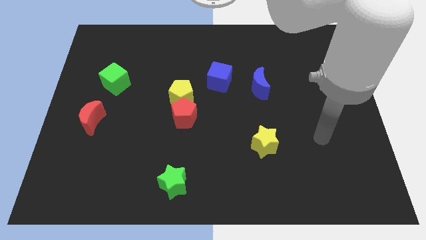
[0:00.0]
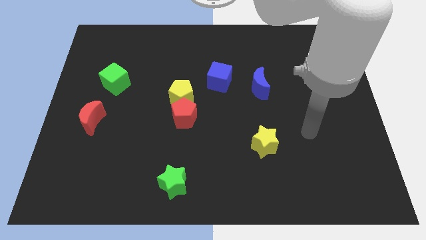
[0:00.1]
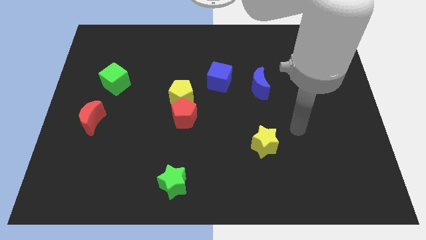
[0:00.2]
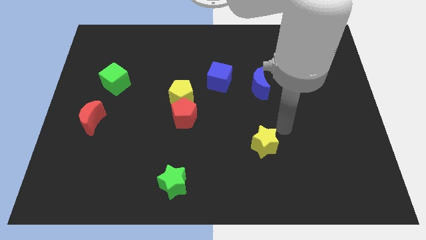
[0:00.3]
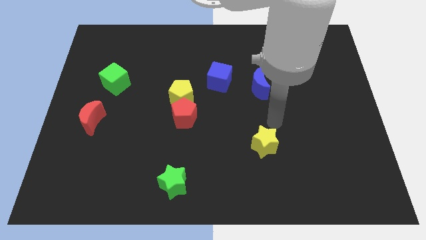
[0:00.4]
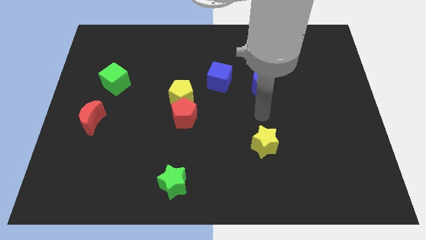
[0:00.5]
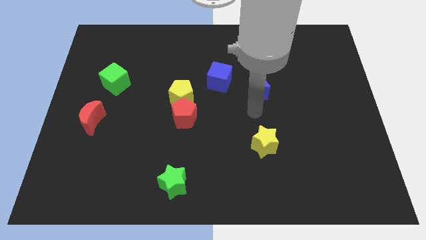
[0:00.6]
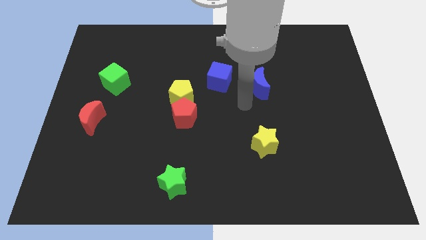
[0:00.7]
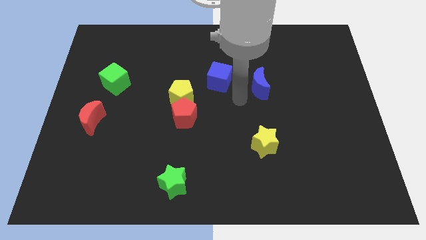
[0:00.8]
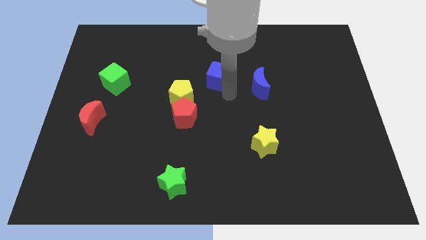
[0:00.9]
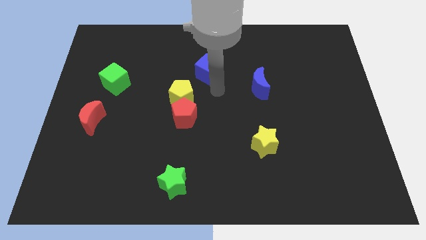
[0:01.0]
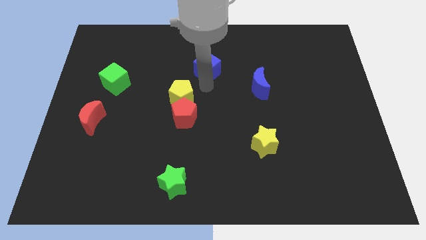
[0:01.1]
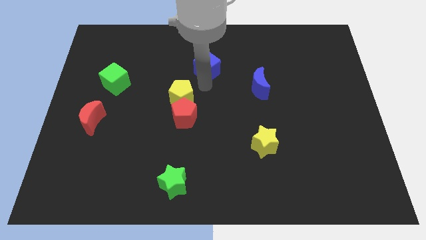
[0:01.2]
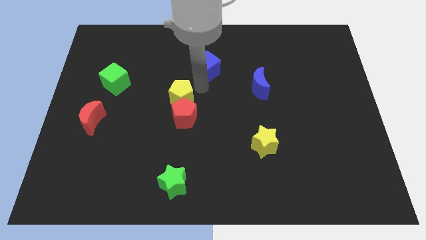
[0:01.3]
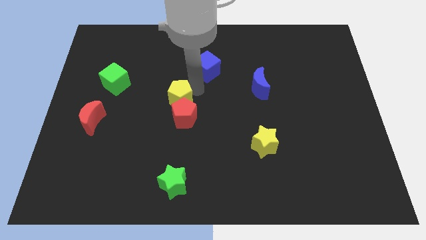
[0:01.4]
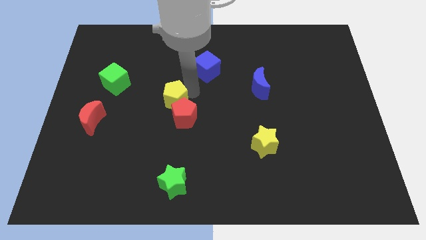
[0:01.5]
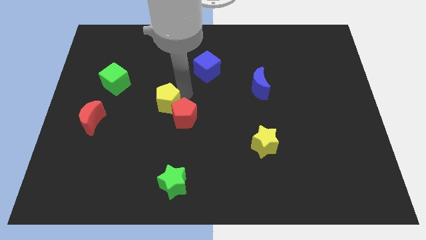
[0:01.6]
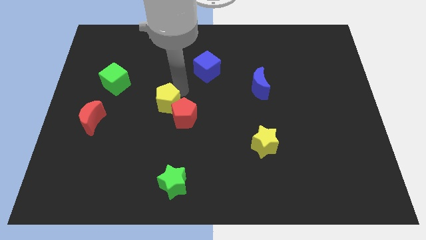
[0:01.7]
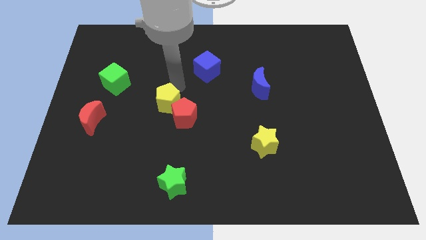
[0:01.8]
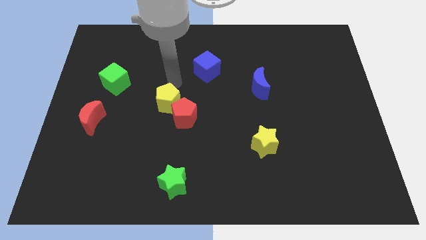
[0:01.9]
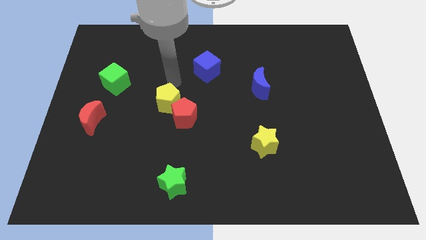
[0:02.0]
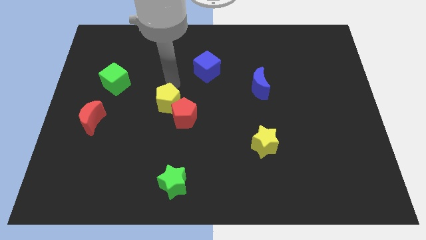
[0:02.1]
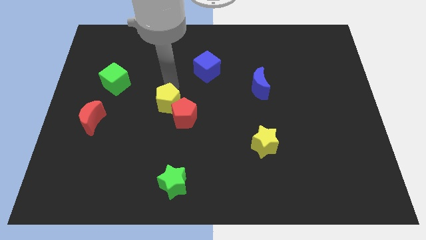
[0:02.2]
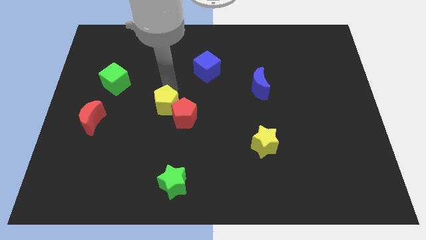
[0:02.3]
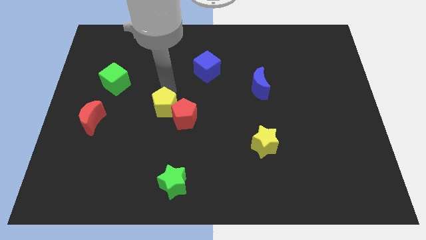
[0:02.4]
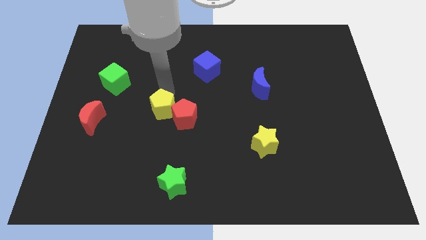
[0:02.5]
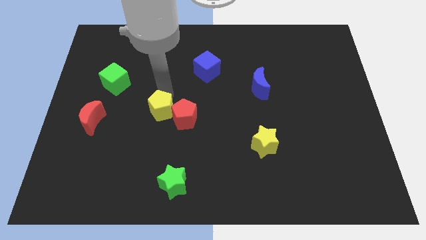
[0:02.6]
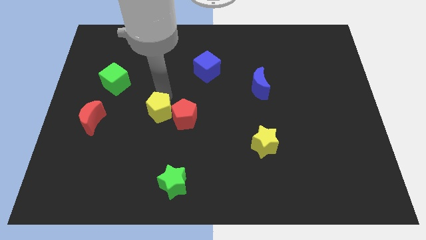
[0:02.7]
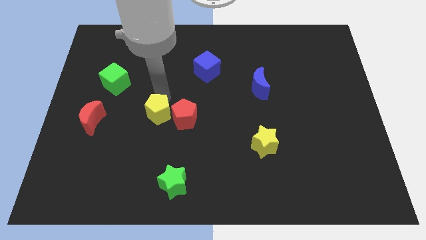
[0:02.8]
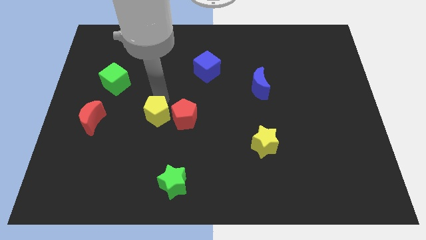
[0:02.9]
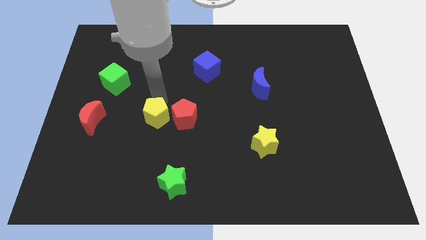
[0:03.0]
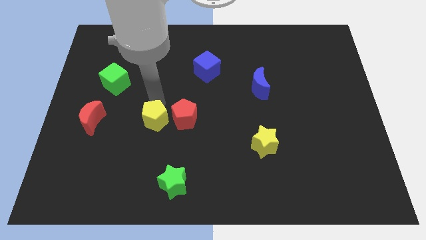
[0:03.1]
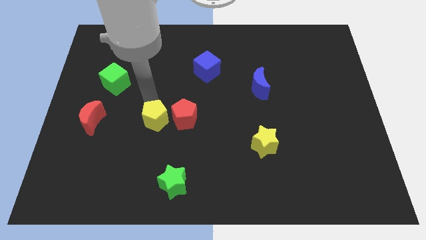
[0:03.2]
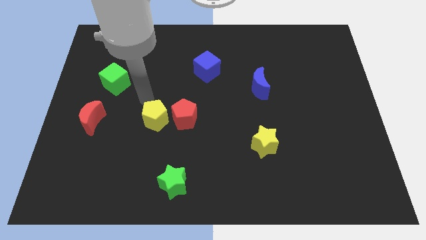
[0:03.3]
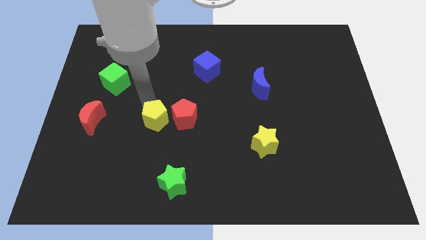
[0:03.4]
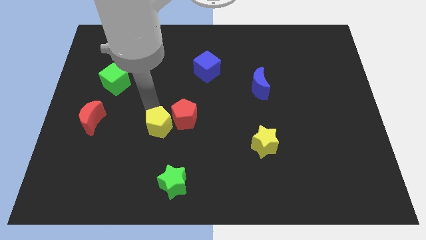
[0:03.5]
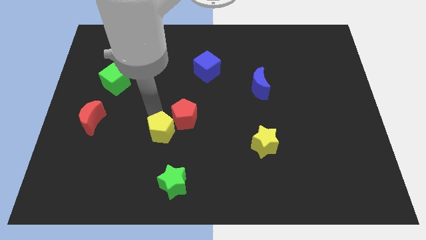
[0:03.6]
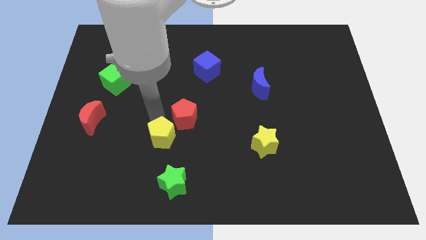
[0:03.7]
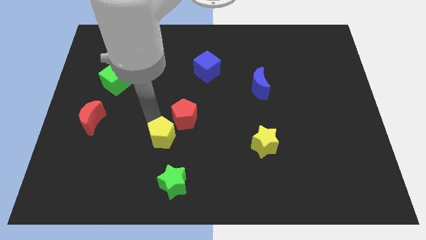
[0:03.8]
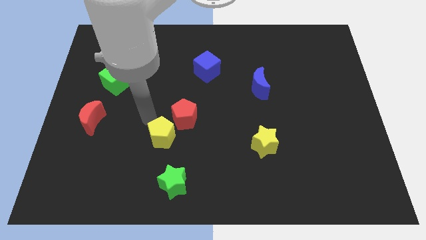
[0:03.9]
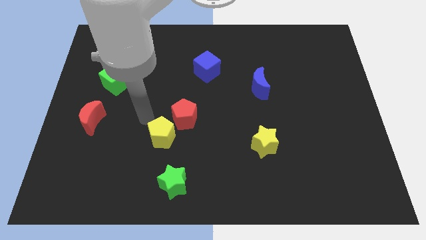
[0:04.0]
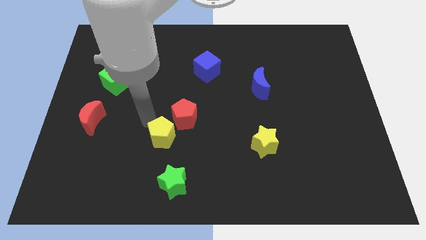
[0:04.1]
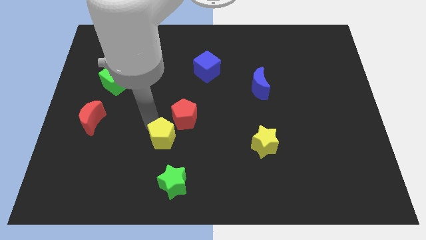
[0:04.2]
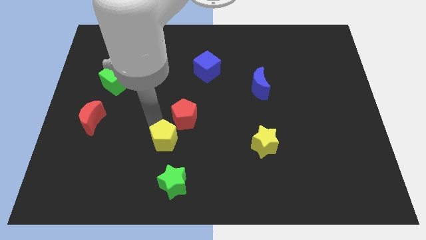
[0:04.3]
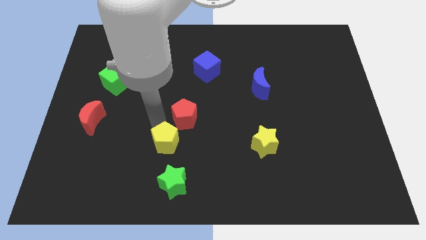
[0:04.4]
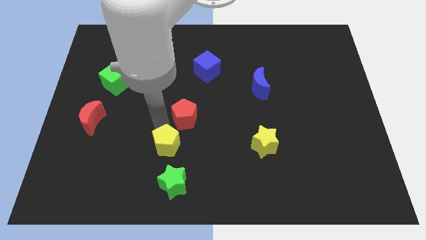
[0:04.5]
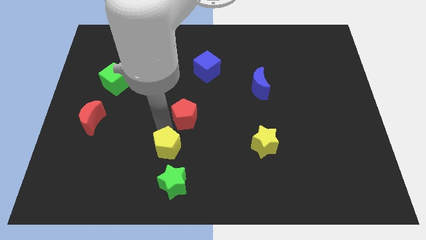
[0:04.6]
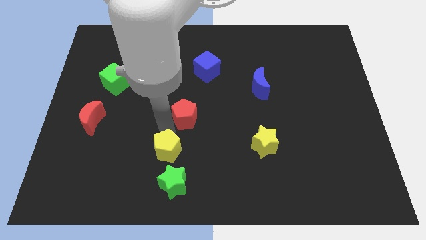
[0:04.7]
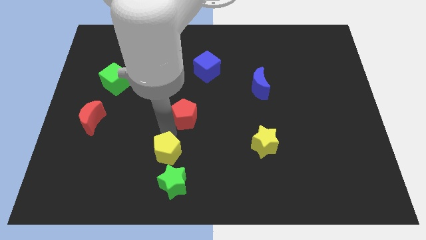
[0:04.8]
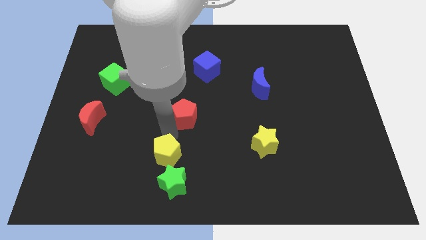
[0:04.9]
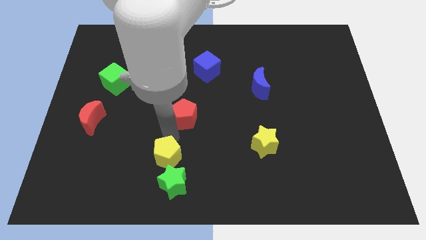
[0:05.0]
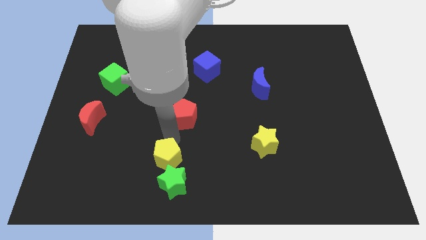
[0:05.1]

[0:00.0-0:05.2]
slide the yellow pentagon to the green star

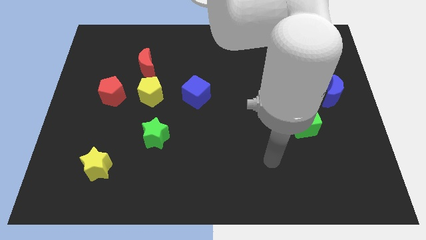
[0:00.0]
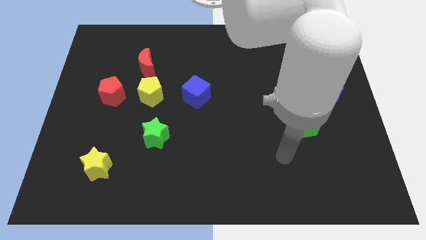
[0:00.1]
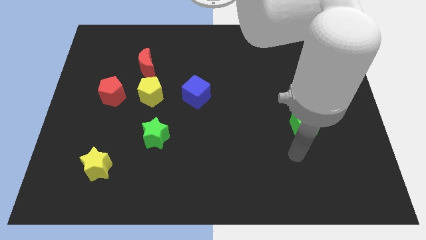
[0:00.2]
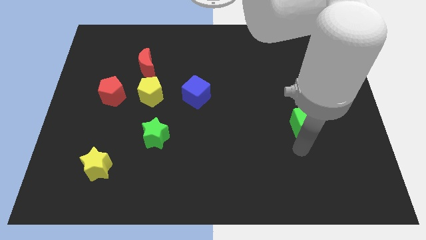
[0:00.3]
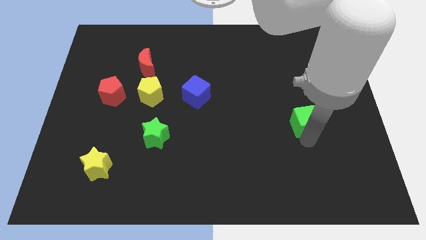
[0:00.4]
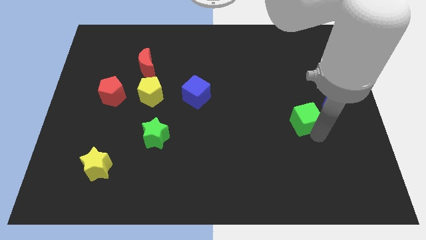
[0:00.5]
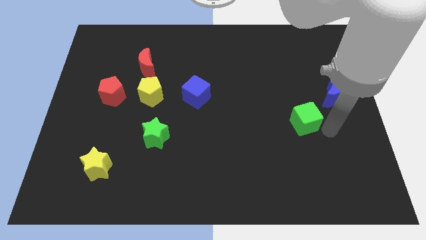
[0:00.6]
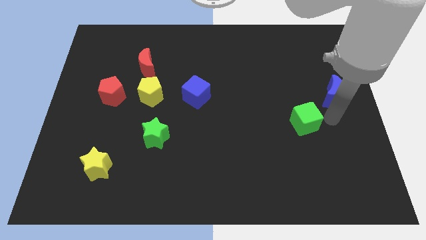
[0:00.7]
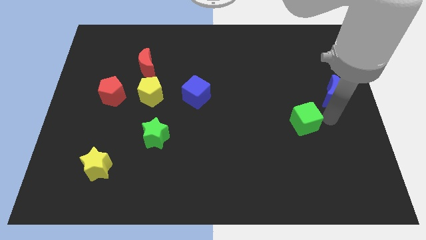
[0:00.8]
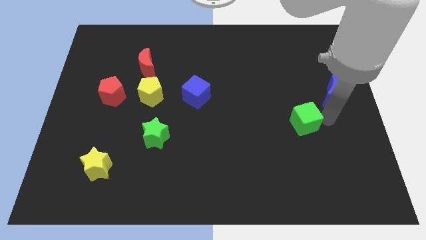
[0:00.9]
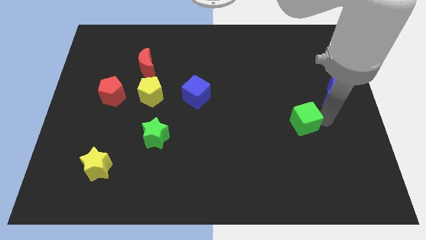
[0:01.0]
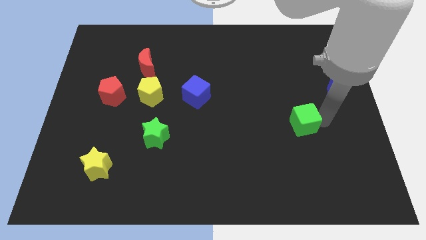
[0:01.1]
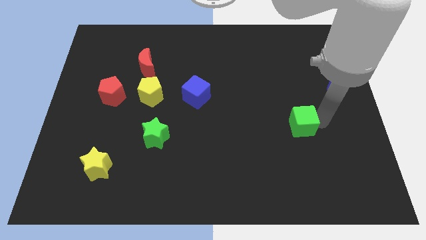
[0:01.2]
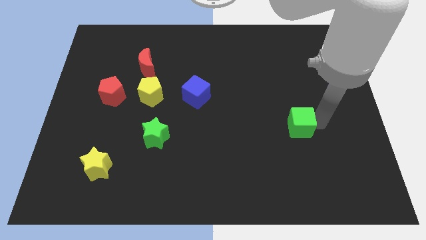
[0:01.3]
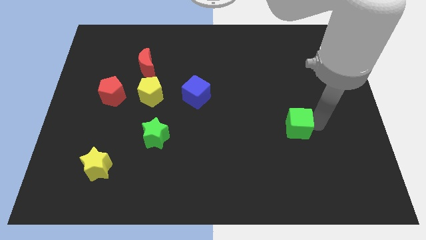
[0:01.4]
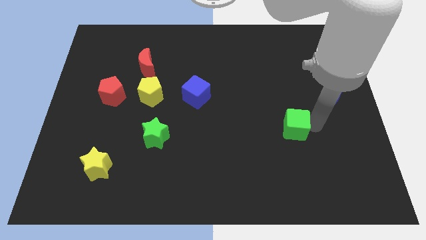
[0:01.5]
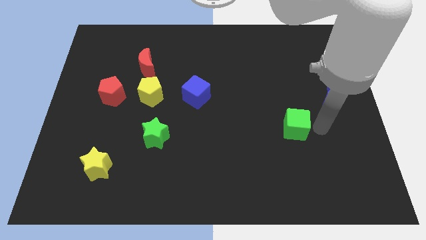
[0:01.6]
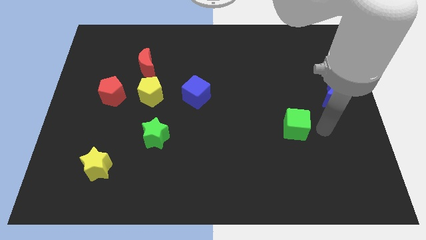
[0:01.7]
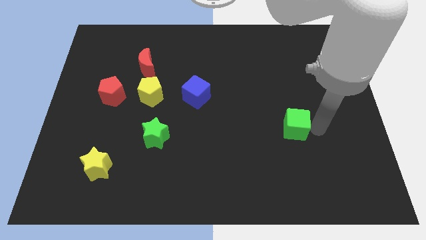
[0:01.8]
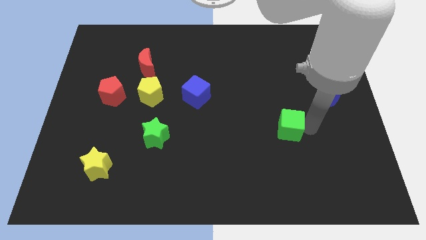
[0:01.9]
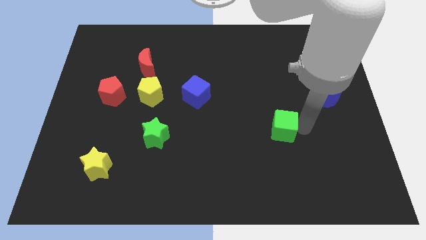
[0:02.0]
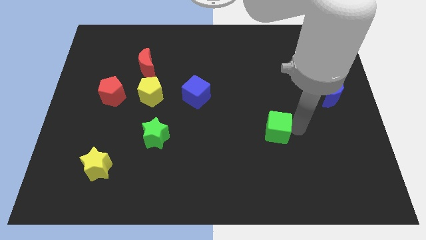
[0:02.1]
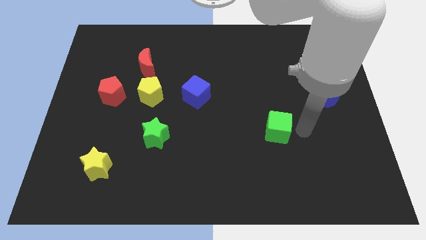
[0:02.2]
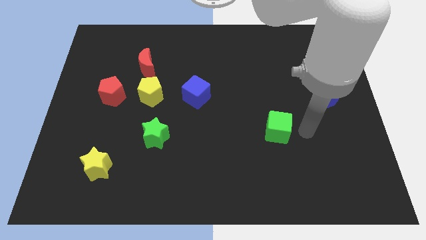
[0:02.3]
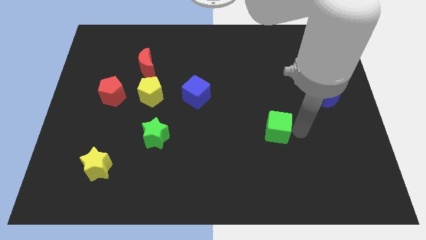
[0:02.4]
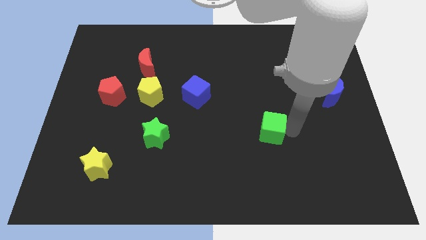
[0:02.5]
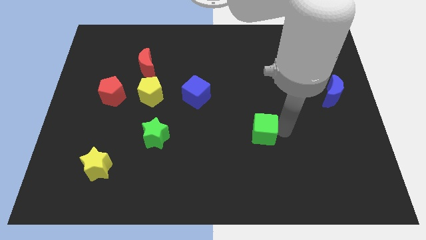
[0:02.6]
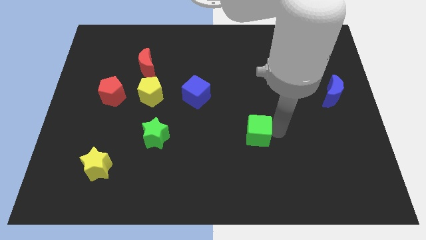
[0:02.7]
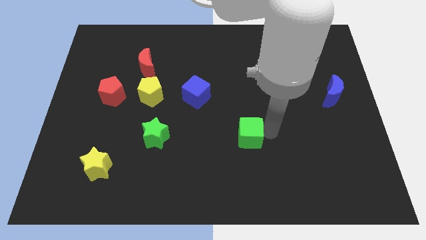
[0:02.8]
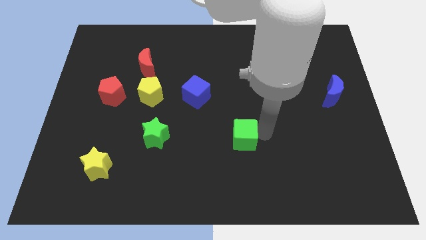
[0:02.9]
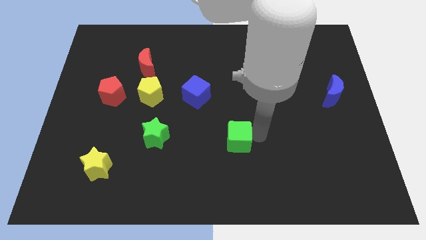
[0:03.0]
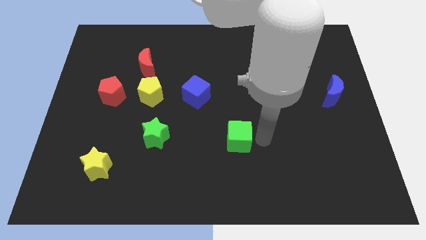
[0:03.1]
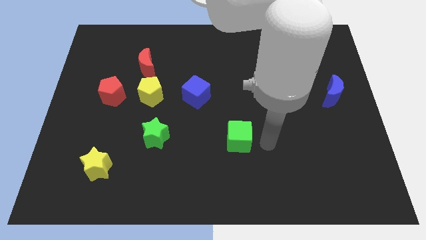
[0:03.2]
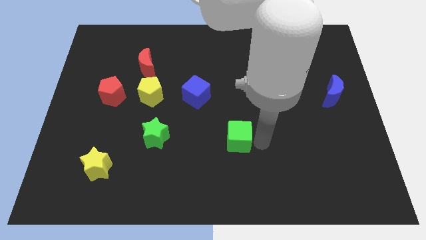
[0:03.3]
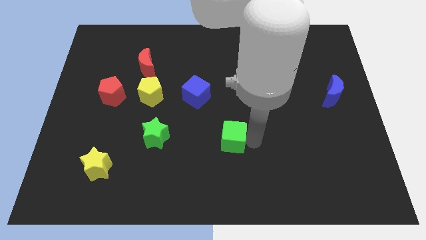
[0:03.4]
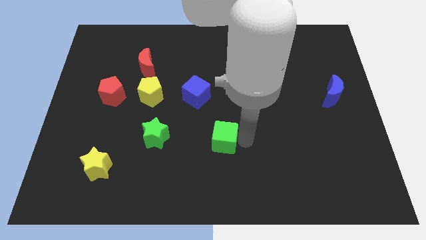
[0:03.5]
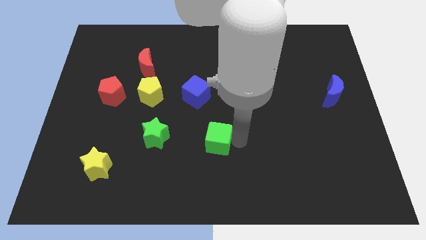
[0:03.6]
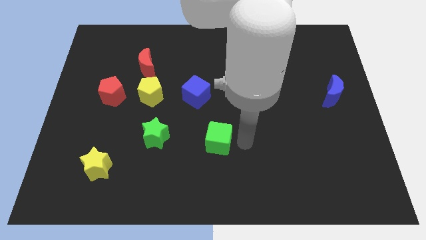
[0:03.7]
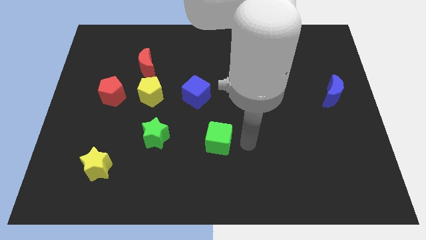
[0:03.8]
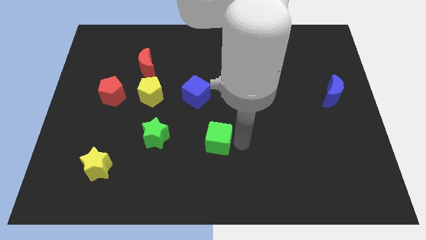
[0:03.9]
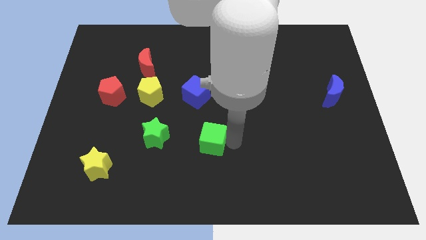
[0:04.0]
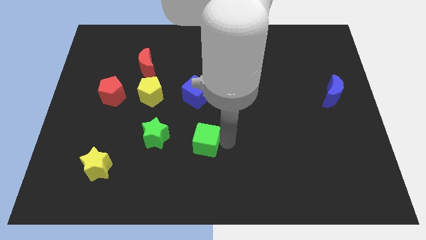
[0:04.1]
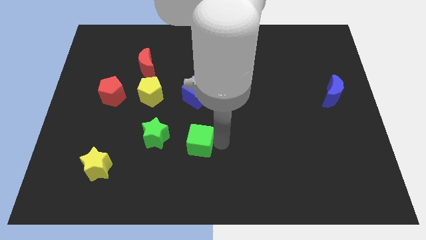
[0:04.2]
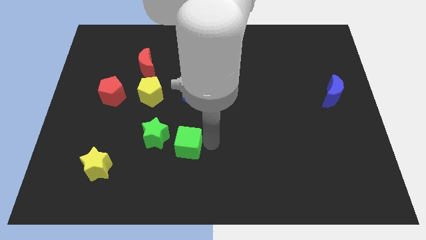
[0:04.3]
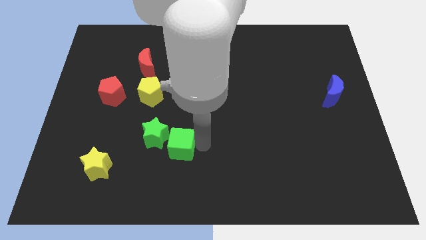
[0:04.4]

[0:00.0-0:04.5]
move the green cube close to the green star
